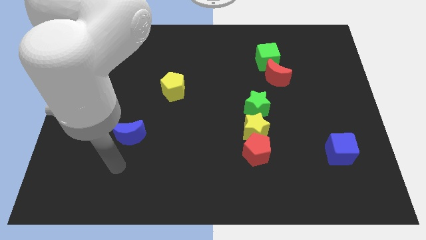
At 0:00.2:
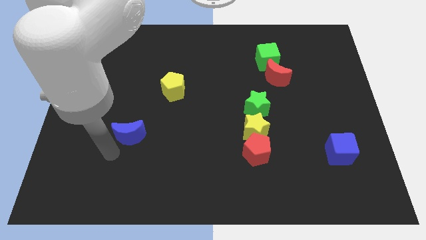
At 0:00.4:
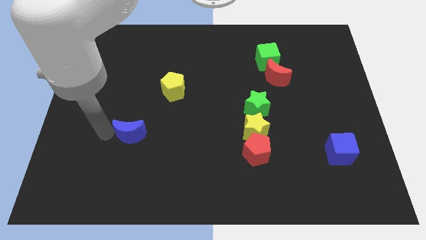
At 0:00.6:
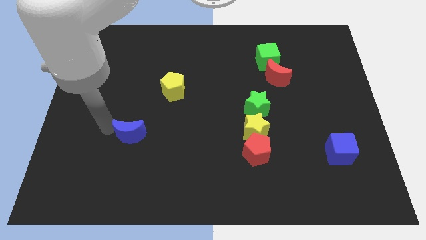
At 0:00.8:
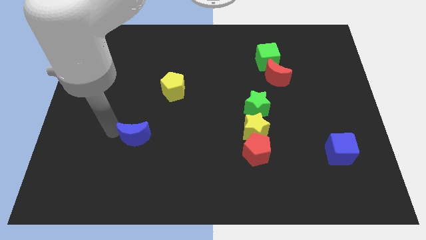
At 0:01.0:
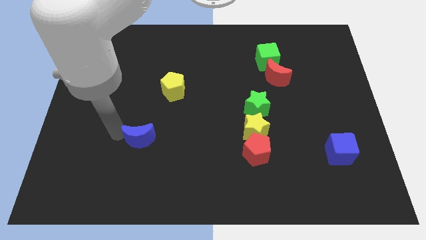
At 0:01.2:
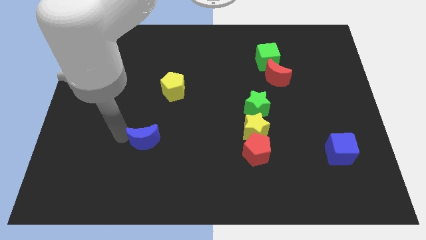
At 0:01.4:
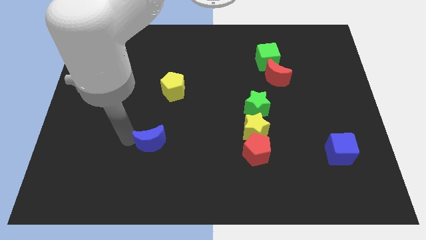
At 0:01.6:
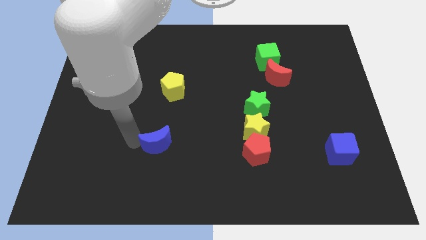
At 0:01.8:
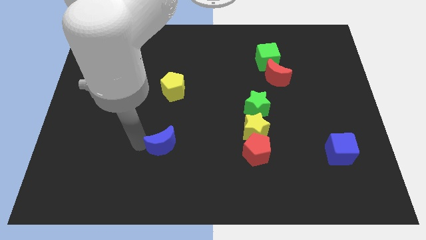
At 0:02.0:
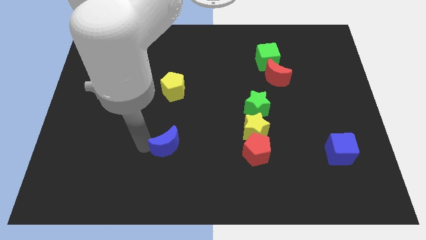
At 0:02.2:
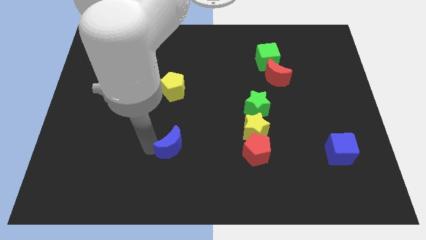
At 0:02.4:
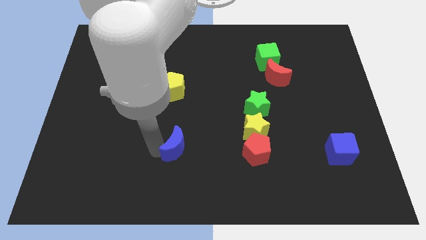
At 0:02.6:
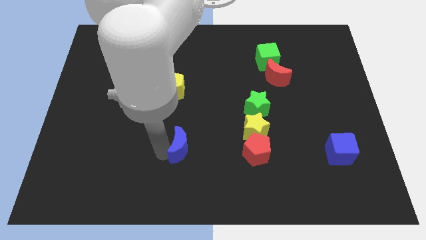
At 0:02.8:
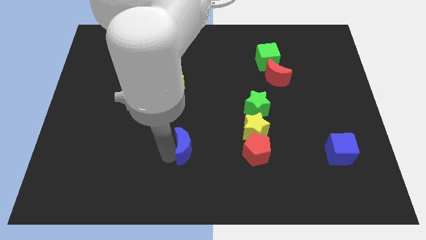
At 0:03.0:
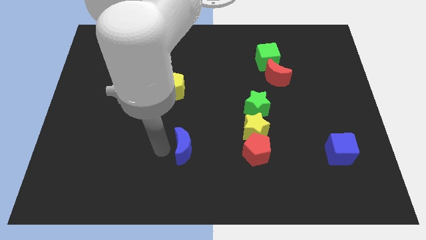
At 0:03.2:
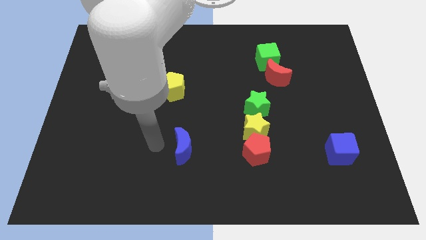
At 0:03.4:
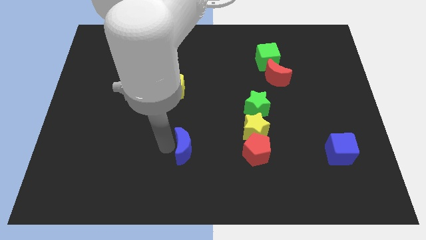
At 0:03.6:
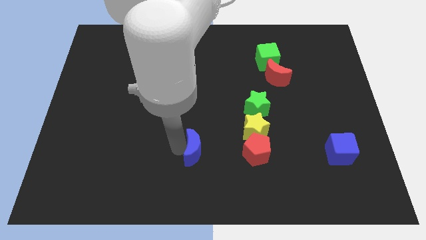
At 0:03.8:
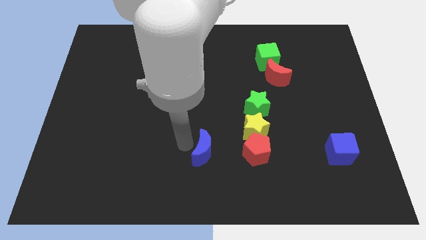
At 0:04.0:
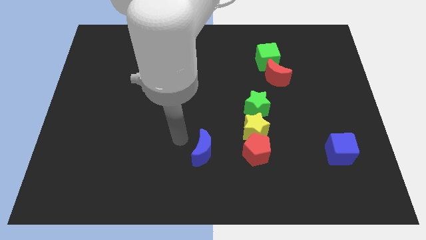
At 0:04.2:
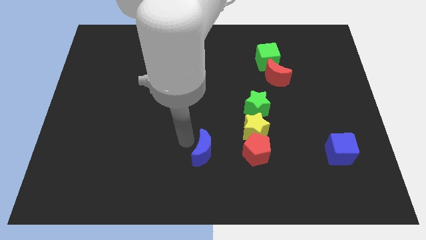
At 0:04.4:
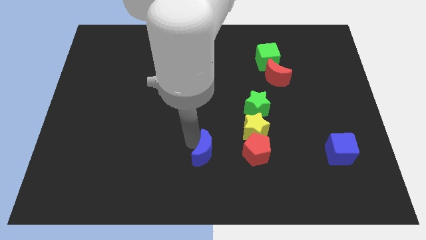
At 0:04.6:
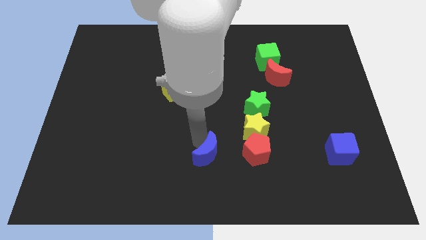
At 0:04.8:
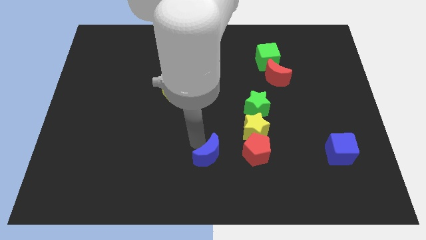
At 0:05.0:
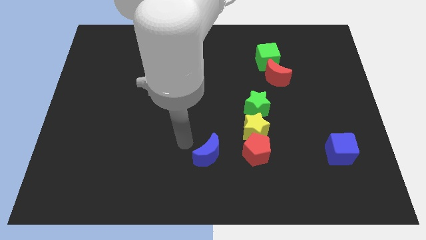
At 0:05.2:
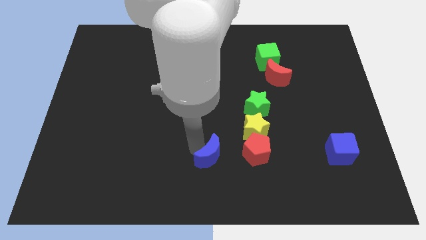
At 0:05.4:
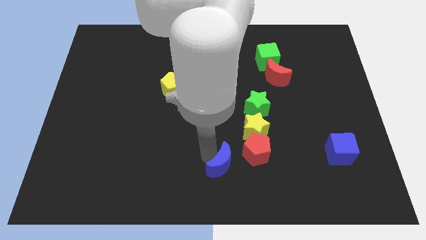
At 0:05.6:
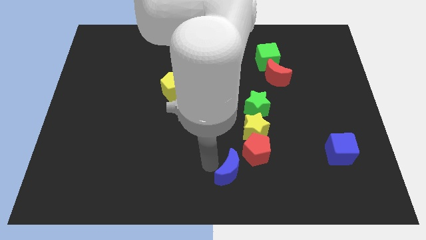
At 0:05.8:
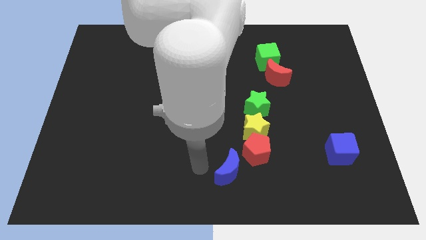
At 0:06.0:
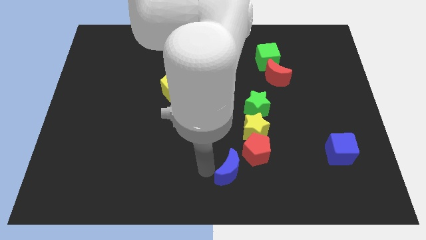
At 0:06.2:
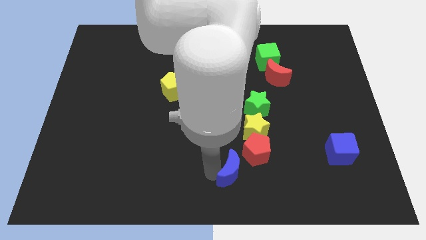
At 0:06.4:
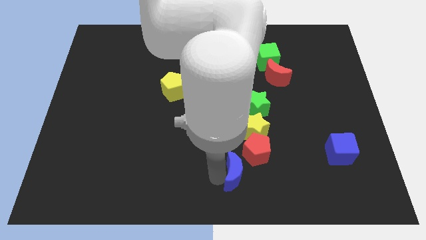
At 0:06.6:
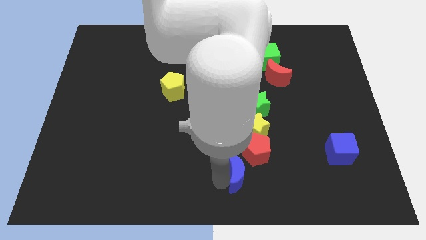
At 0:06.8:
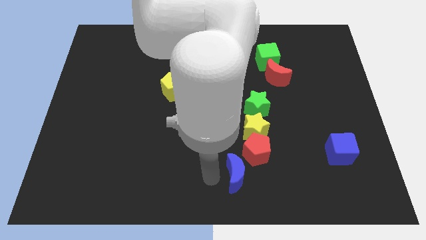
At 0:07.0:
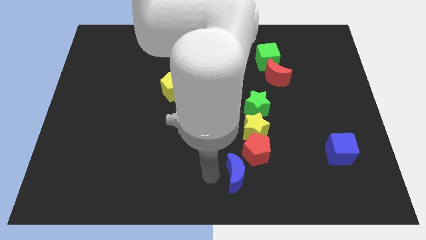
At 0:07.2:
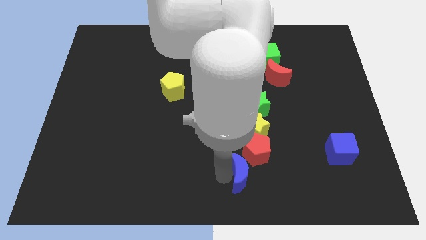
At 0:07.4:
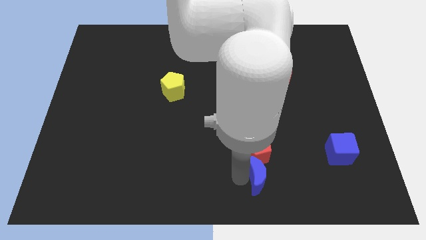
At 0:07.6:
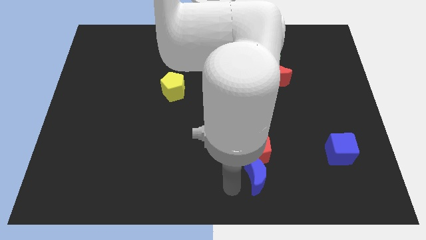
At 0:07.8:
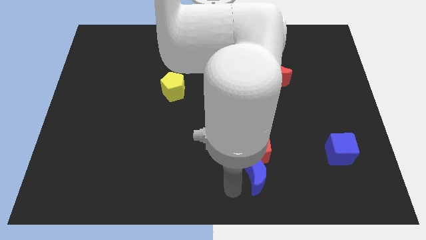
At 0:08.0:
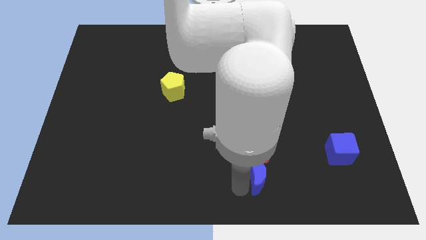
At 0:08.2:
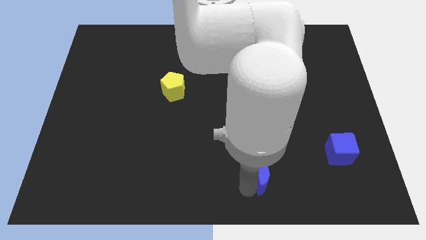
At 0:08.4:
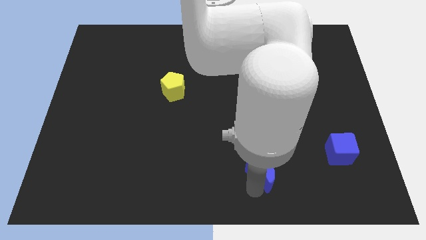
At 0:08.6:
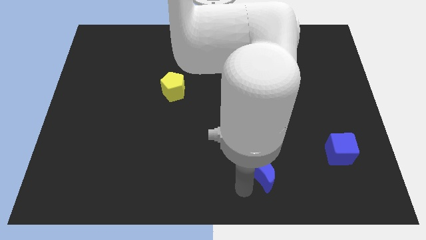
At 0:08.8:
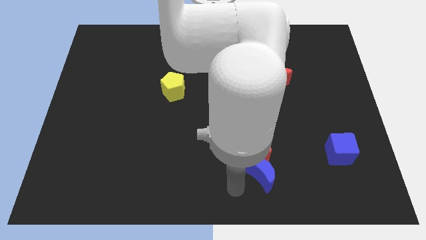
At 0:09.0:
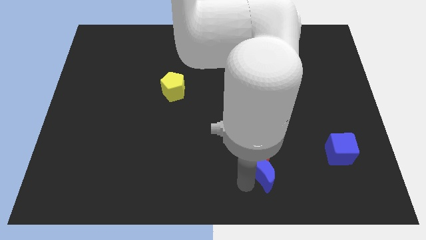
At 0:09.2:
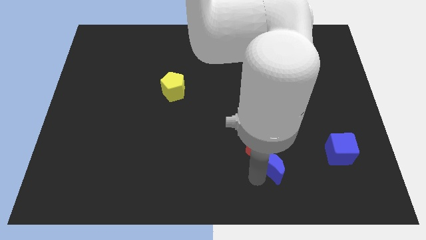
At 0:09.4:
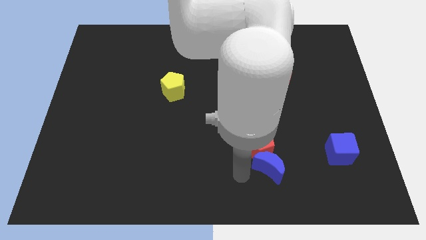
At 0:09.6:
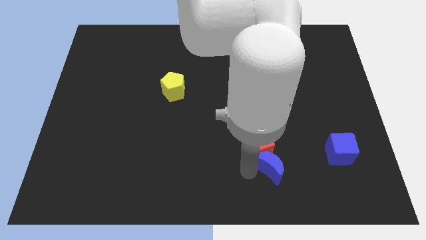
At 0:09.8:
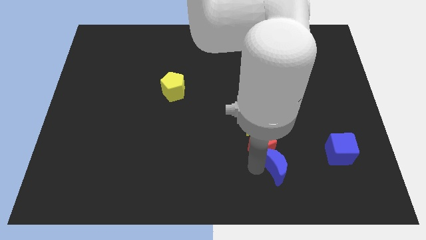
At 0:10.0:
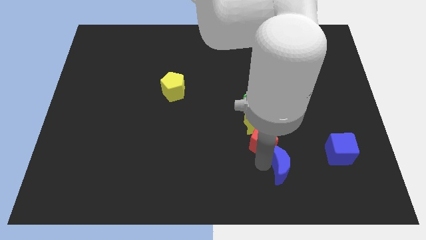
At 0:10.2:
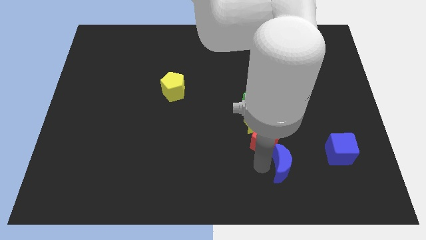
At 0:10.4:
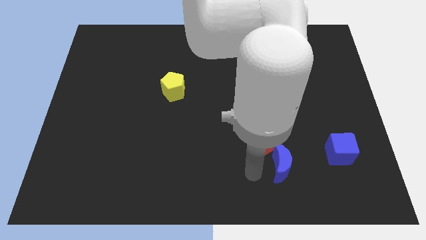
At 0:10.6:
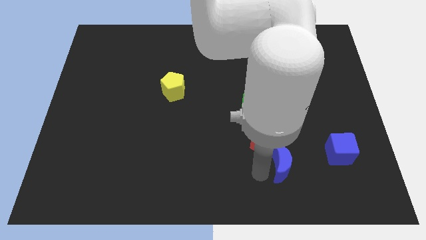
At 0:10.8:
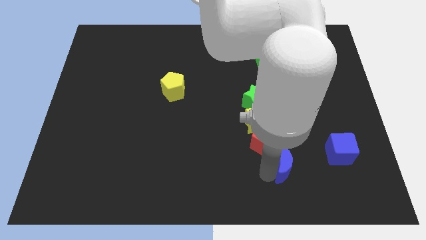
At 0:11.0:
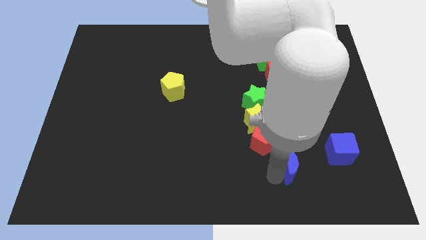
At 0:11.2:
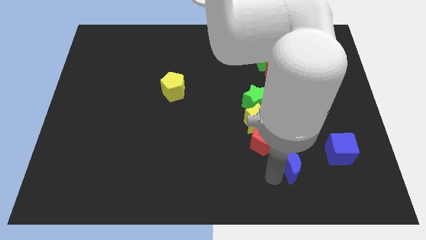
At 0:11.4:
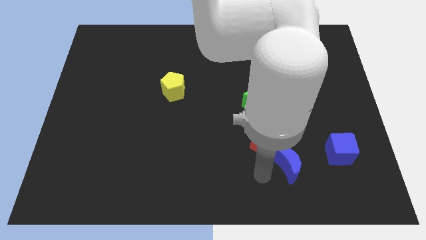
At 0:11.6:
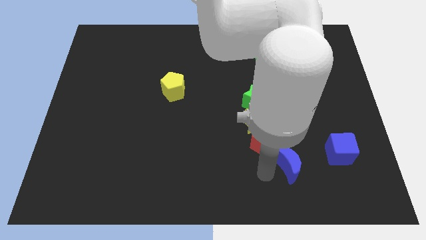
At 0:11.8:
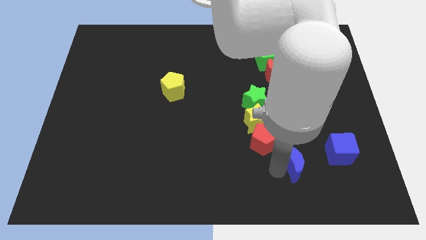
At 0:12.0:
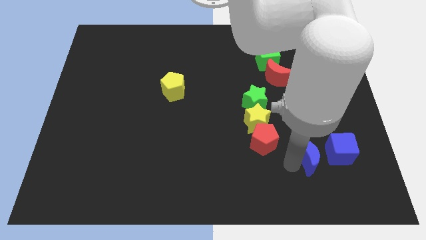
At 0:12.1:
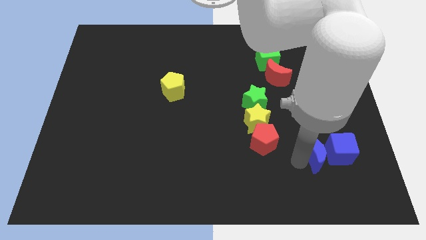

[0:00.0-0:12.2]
move the blue moon close to the blue cube

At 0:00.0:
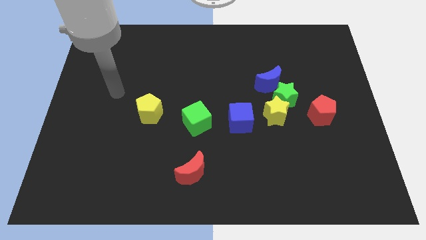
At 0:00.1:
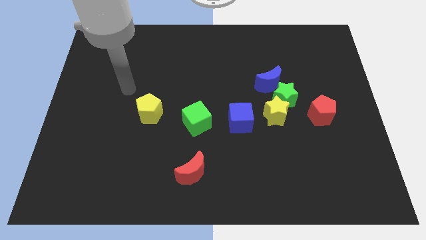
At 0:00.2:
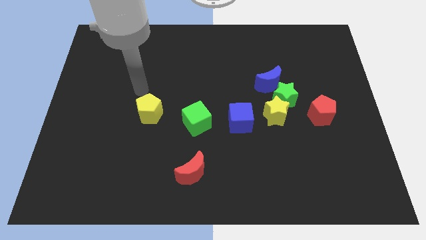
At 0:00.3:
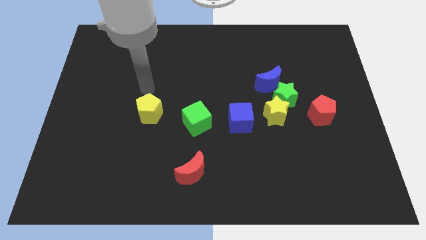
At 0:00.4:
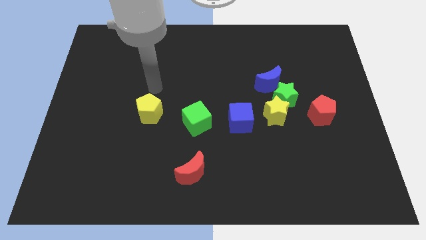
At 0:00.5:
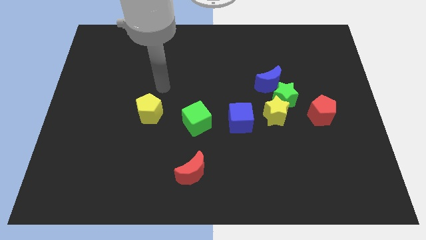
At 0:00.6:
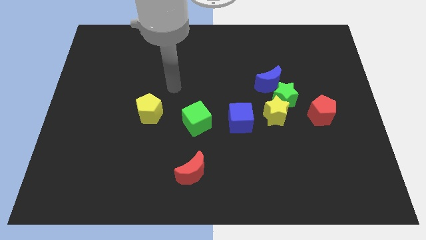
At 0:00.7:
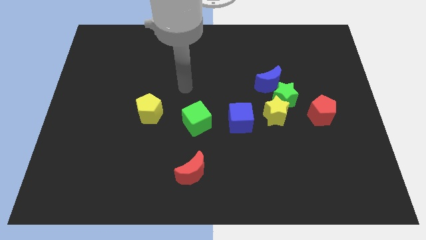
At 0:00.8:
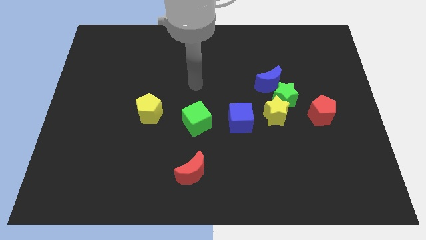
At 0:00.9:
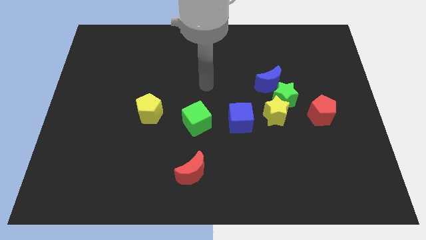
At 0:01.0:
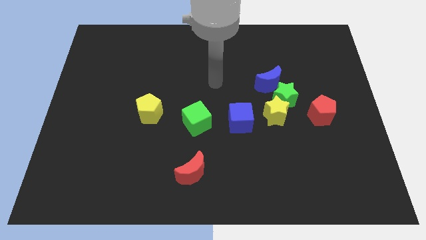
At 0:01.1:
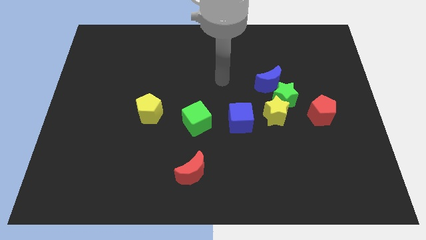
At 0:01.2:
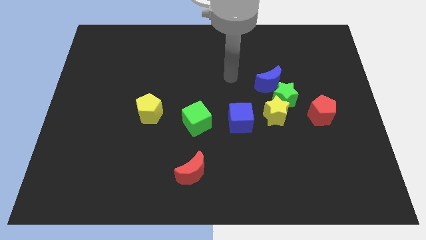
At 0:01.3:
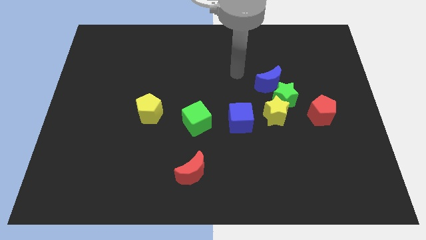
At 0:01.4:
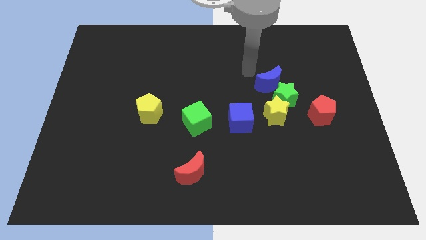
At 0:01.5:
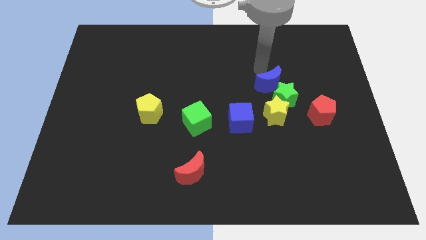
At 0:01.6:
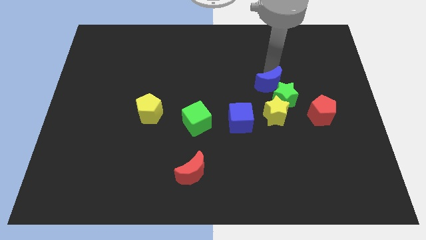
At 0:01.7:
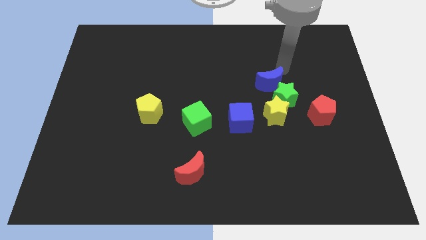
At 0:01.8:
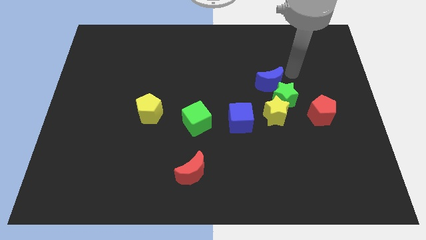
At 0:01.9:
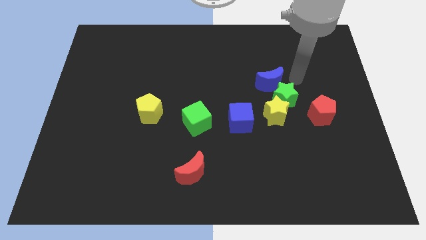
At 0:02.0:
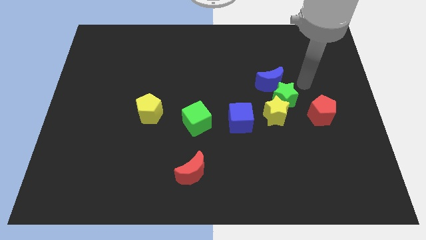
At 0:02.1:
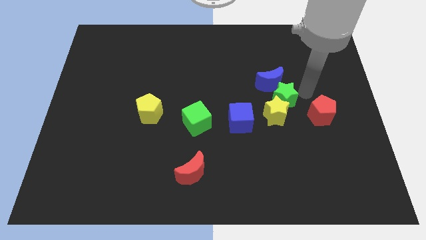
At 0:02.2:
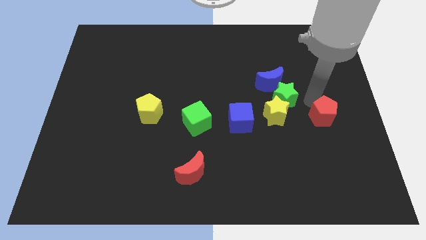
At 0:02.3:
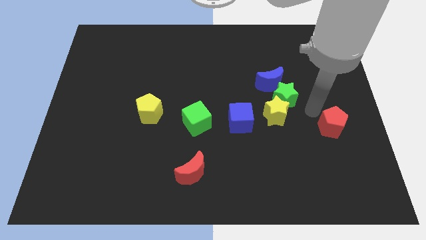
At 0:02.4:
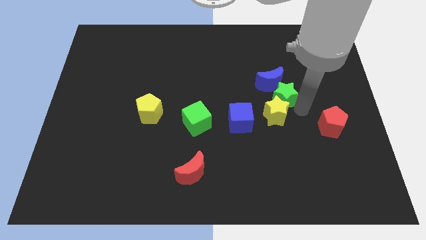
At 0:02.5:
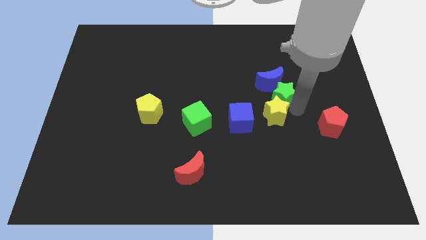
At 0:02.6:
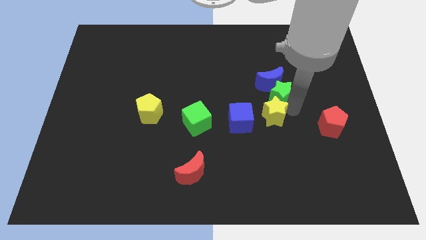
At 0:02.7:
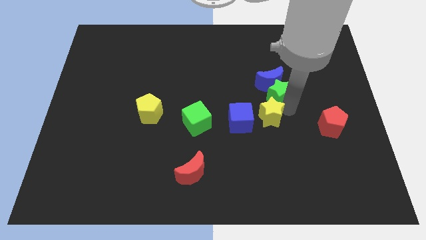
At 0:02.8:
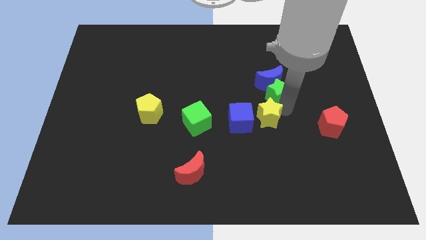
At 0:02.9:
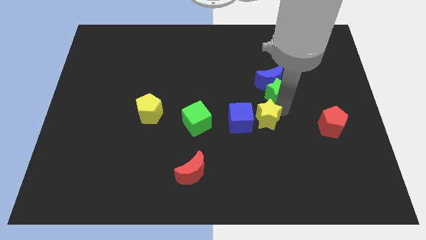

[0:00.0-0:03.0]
slide the yellow star next to the blue cube
